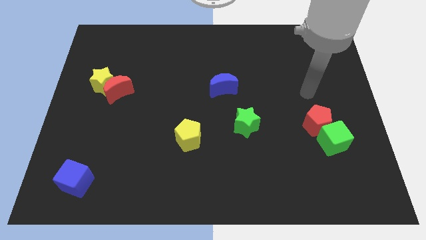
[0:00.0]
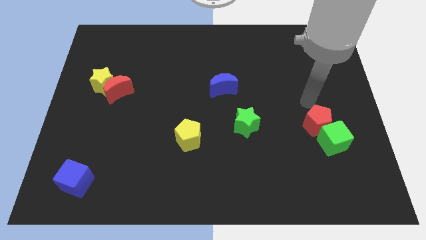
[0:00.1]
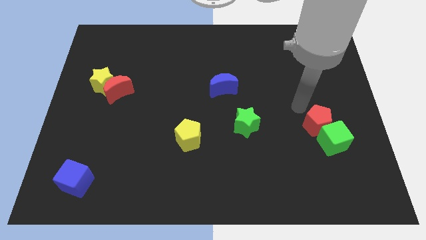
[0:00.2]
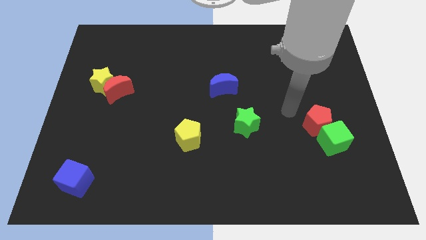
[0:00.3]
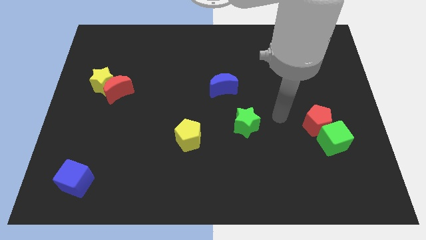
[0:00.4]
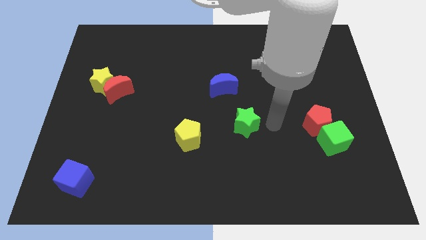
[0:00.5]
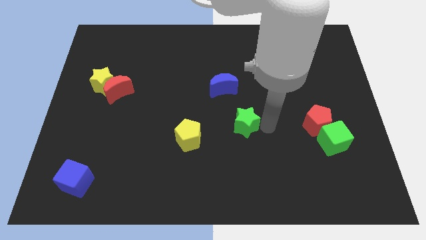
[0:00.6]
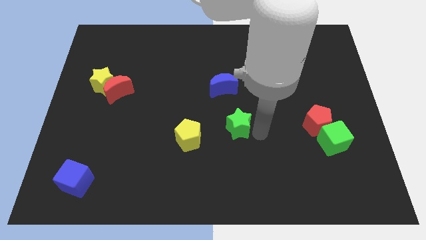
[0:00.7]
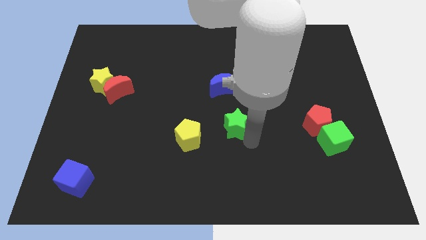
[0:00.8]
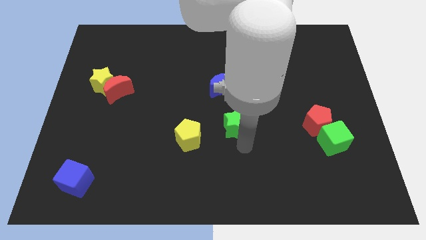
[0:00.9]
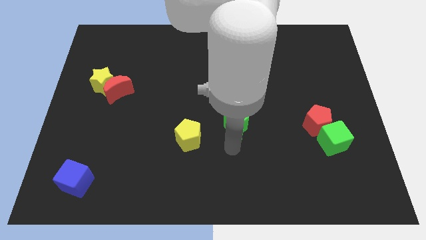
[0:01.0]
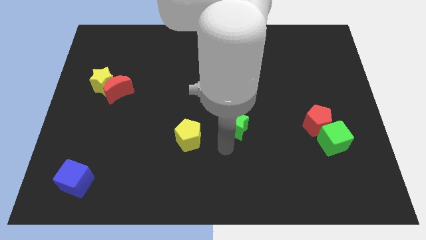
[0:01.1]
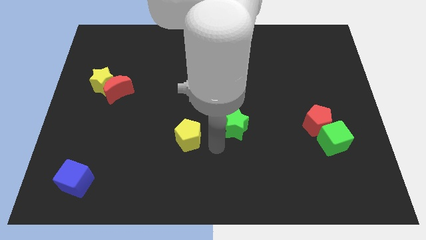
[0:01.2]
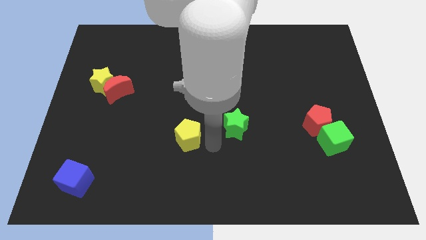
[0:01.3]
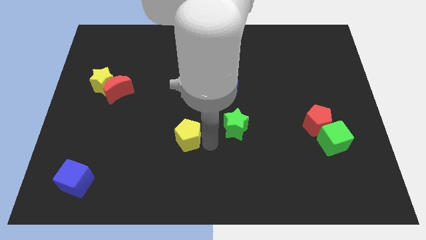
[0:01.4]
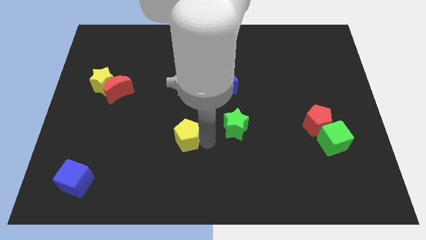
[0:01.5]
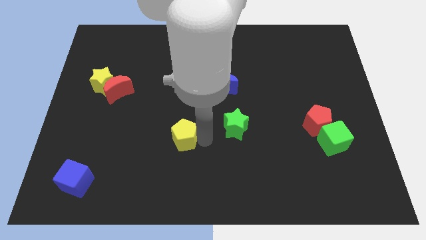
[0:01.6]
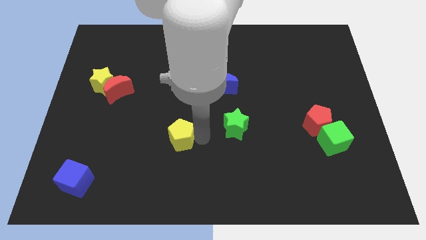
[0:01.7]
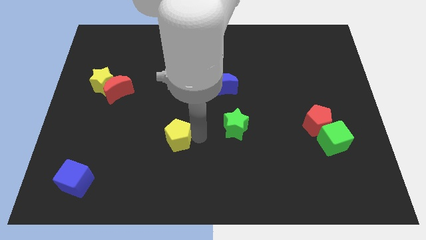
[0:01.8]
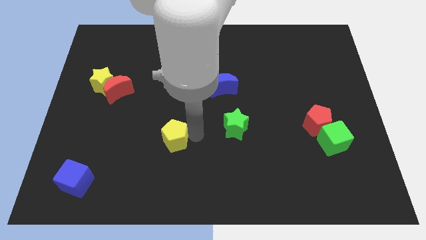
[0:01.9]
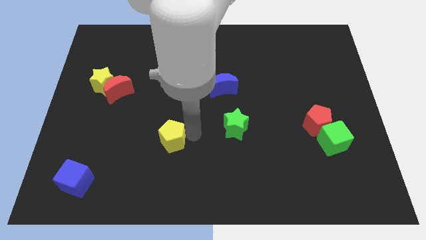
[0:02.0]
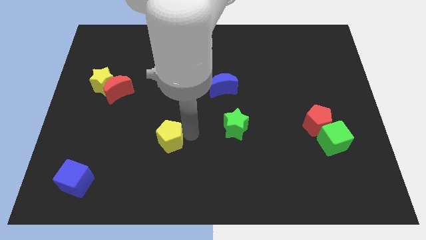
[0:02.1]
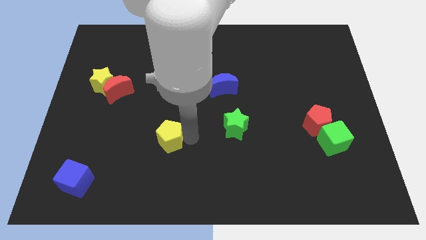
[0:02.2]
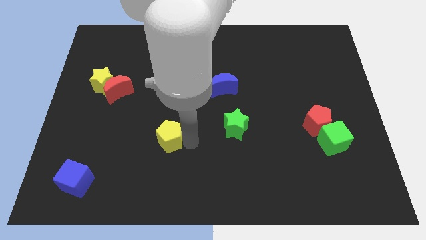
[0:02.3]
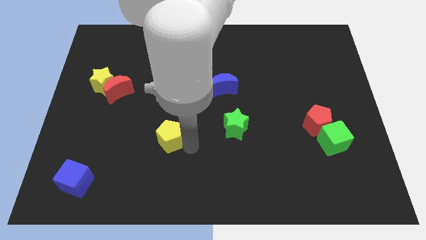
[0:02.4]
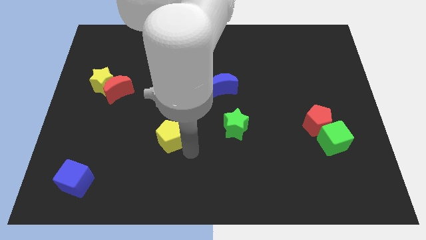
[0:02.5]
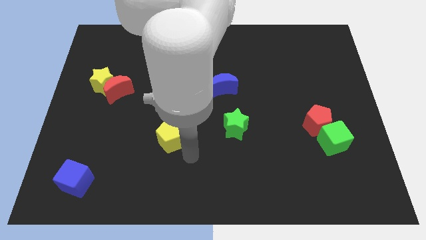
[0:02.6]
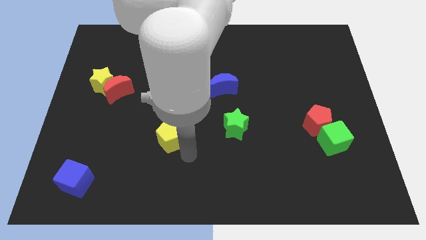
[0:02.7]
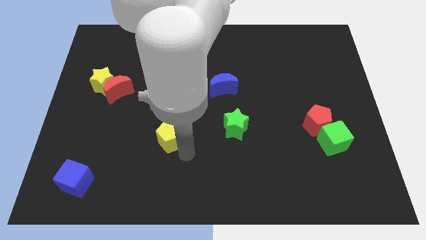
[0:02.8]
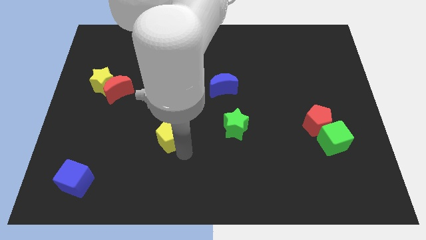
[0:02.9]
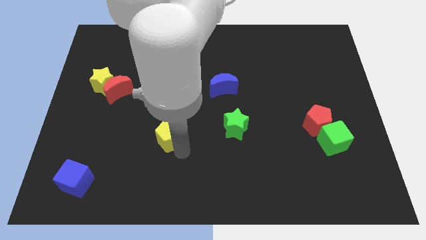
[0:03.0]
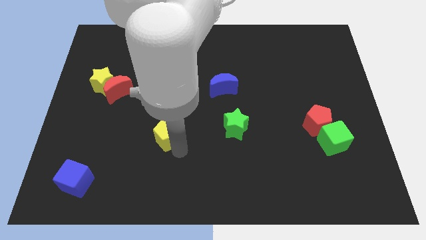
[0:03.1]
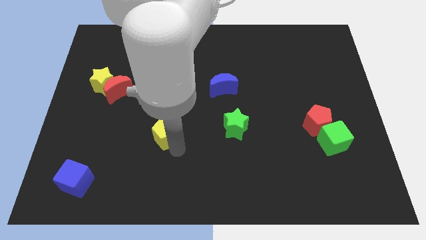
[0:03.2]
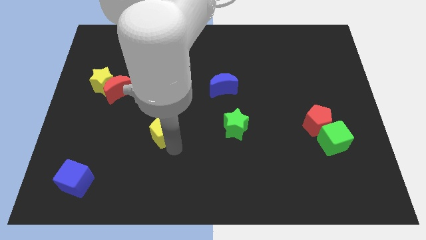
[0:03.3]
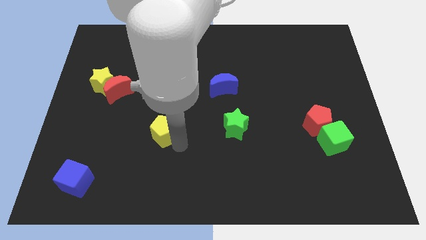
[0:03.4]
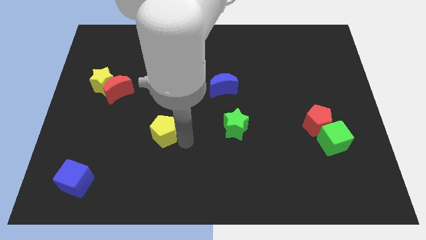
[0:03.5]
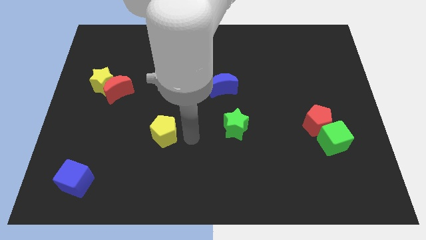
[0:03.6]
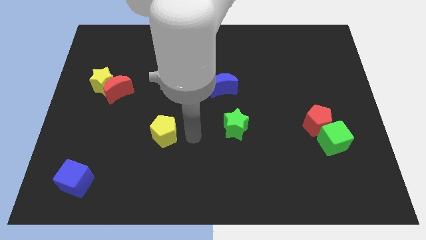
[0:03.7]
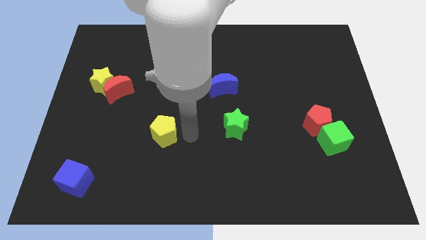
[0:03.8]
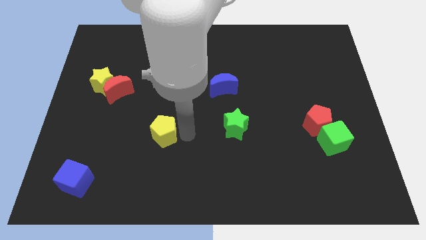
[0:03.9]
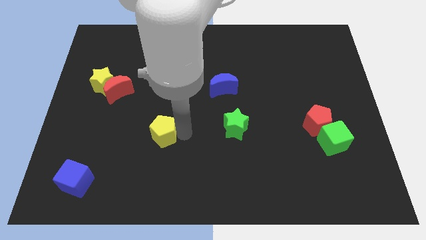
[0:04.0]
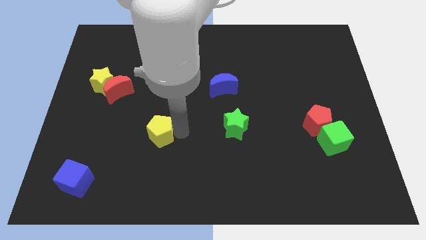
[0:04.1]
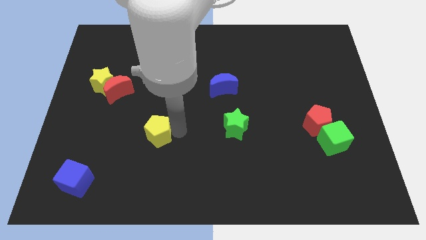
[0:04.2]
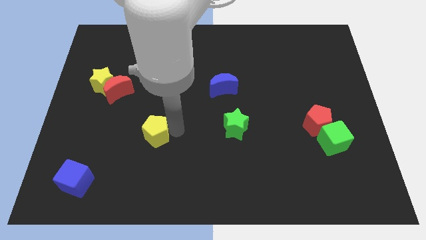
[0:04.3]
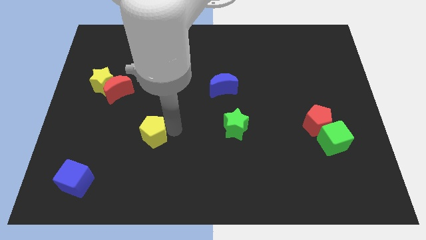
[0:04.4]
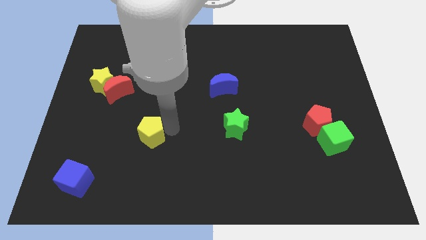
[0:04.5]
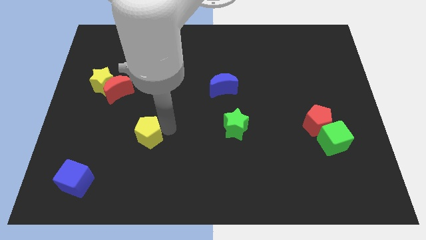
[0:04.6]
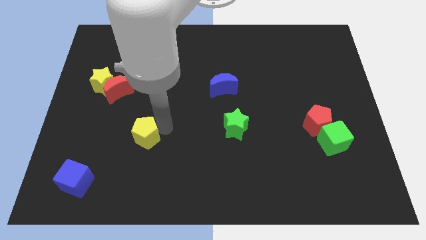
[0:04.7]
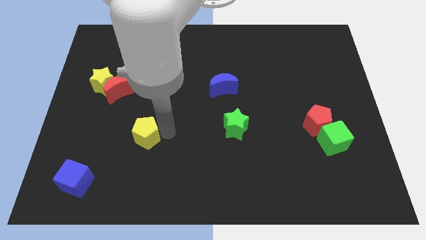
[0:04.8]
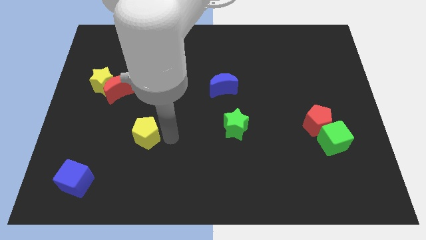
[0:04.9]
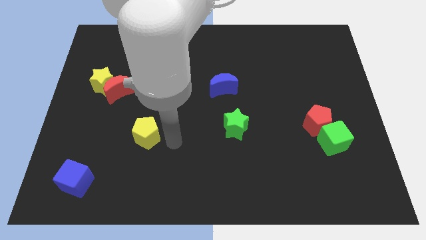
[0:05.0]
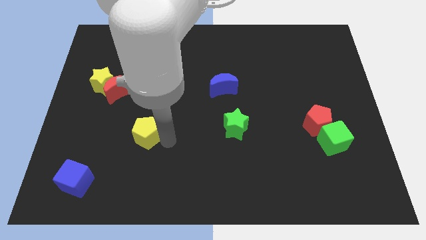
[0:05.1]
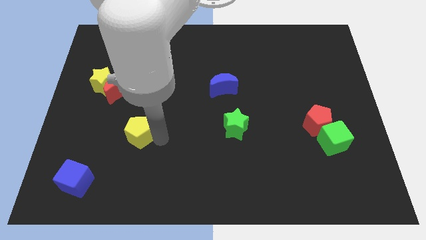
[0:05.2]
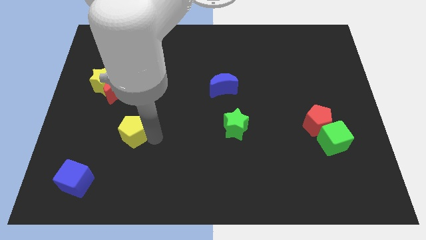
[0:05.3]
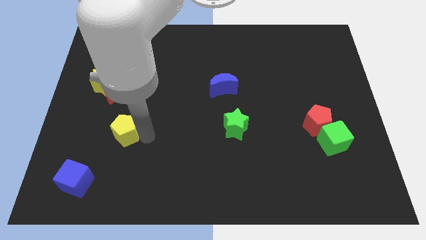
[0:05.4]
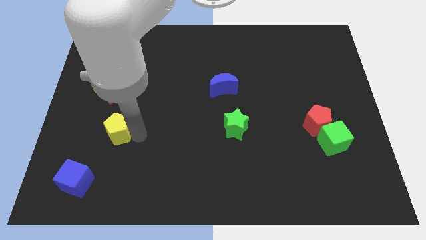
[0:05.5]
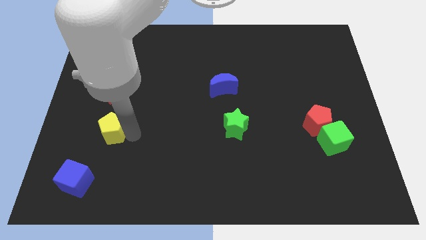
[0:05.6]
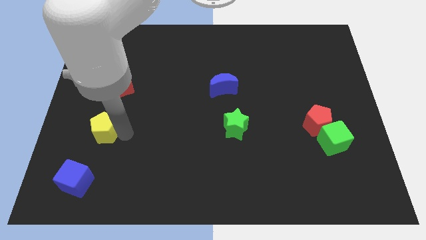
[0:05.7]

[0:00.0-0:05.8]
slide the yellow pentagon to the bottom side of the yellow star

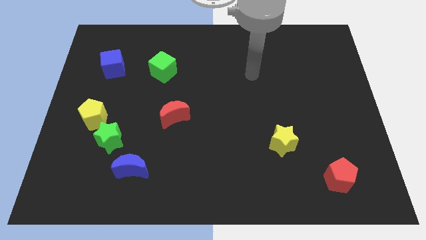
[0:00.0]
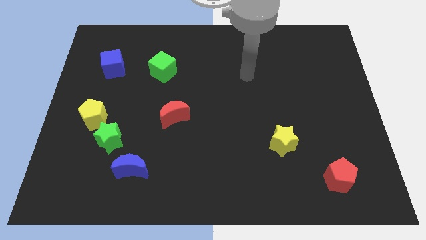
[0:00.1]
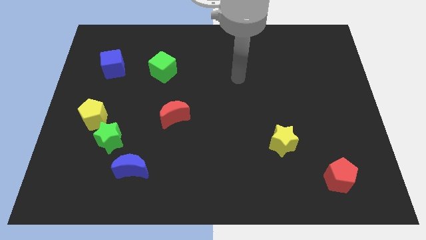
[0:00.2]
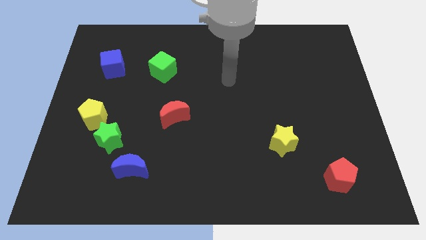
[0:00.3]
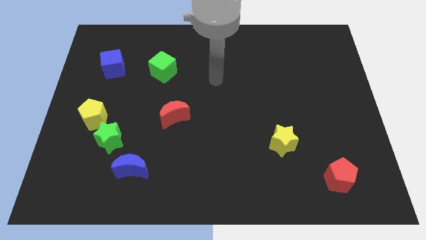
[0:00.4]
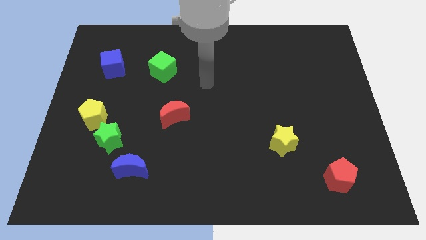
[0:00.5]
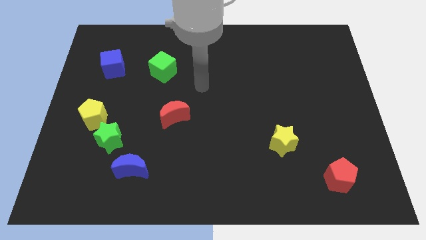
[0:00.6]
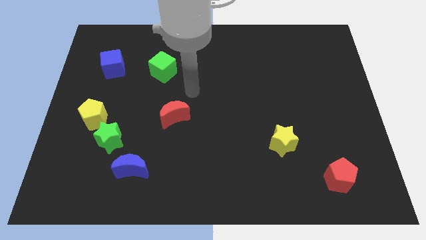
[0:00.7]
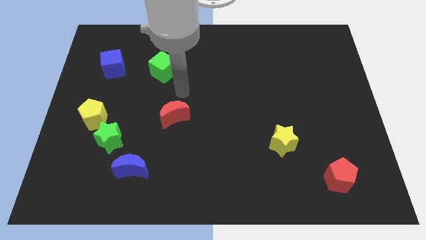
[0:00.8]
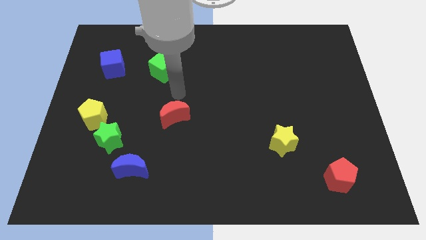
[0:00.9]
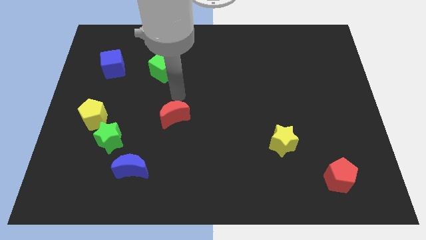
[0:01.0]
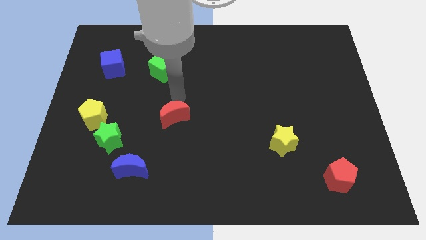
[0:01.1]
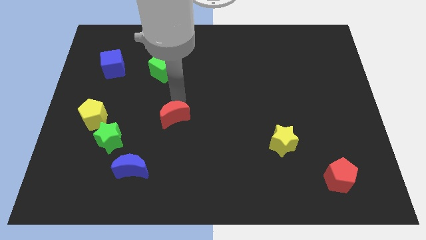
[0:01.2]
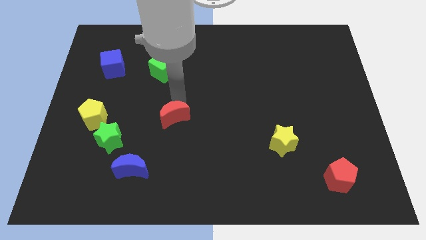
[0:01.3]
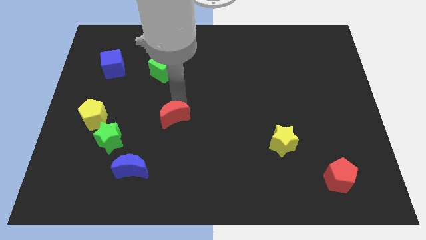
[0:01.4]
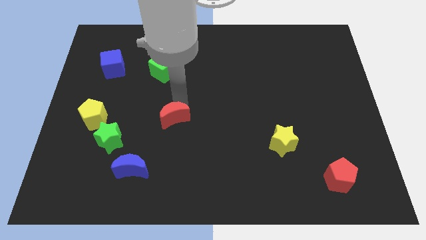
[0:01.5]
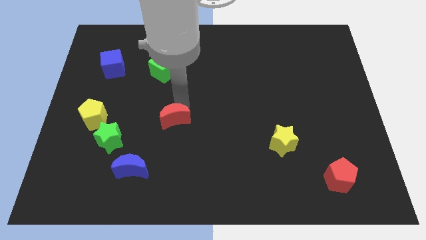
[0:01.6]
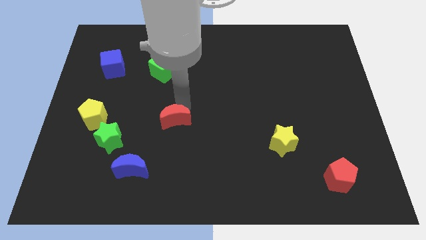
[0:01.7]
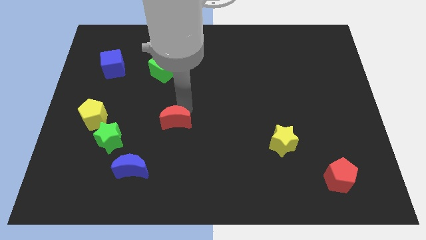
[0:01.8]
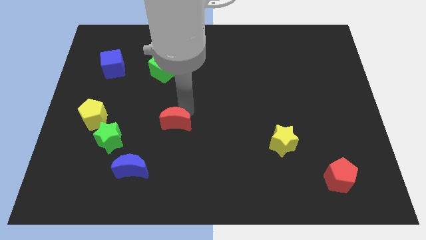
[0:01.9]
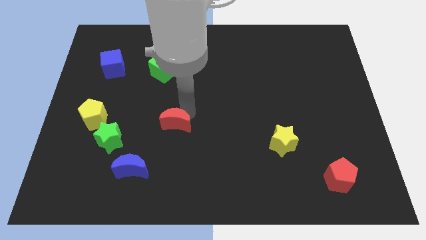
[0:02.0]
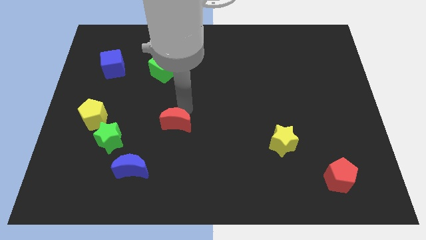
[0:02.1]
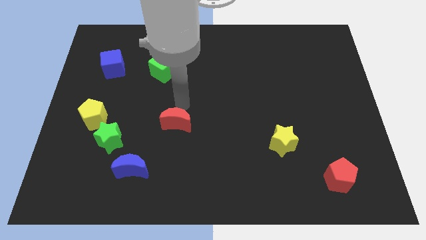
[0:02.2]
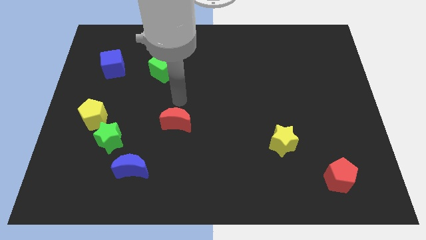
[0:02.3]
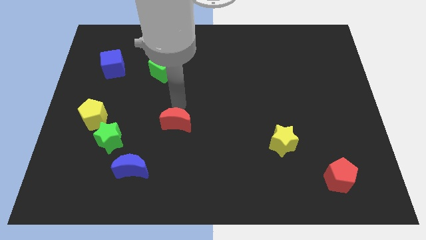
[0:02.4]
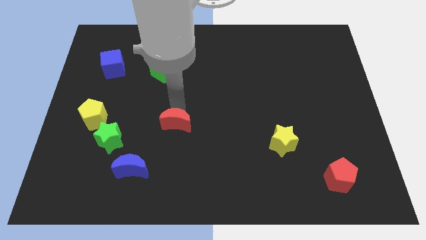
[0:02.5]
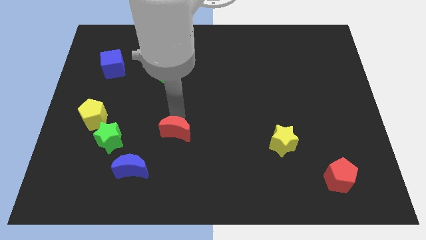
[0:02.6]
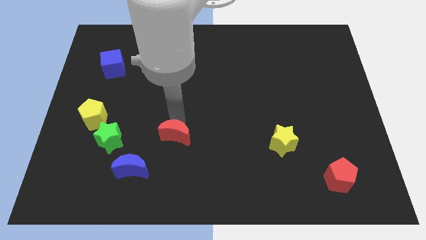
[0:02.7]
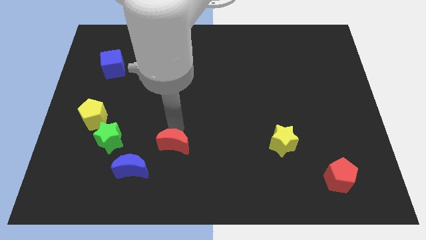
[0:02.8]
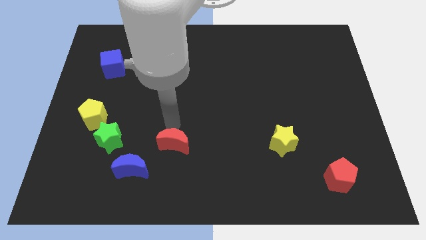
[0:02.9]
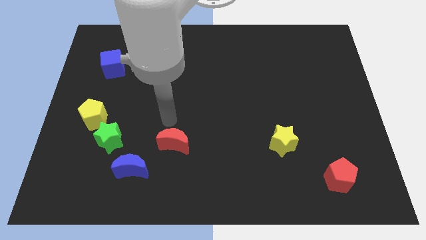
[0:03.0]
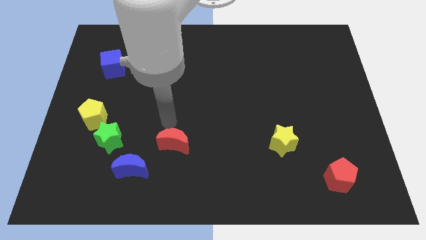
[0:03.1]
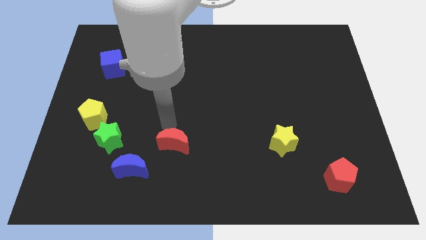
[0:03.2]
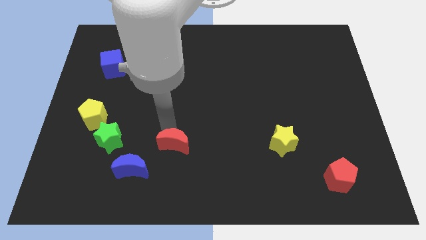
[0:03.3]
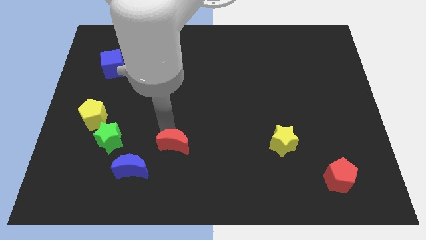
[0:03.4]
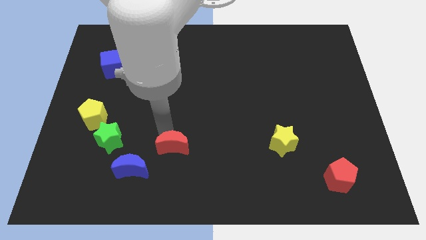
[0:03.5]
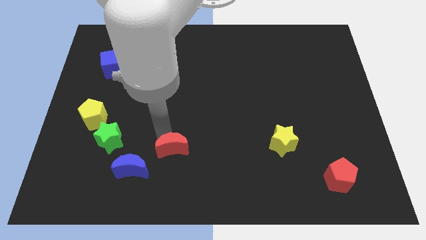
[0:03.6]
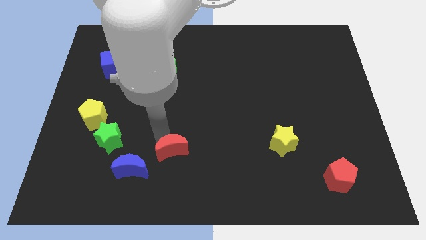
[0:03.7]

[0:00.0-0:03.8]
push the red moon to the right of the blue moon
